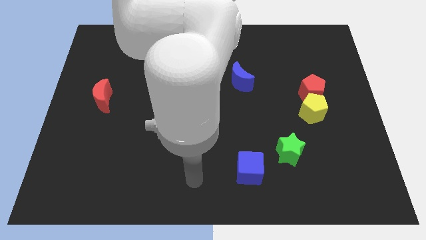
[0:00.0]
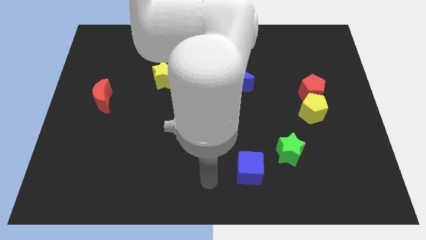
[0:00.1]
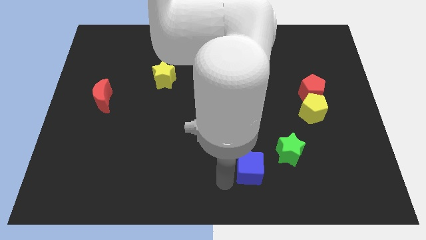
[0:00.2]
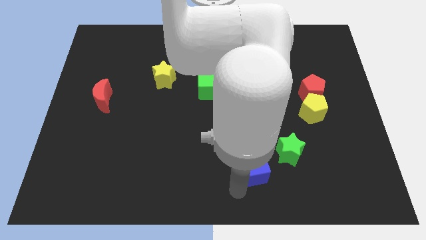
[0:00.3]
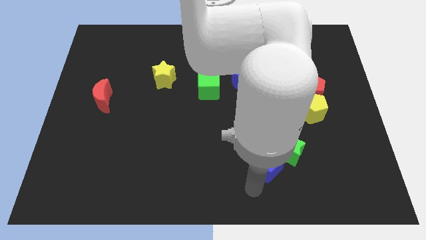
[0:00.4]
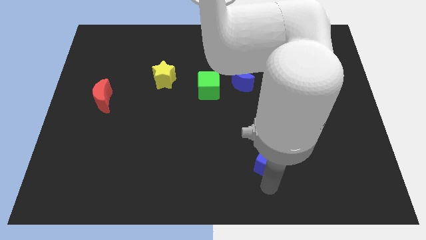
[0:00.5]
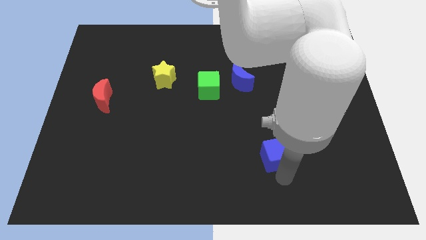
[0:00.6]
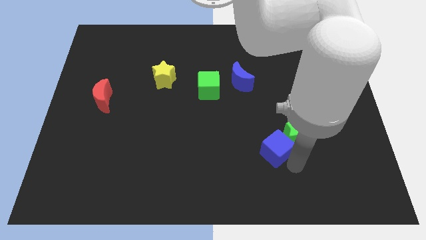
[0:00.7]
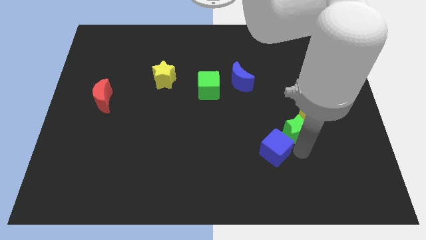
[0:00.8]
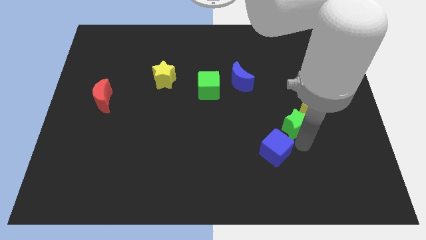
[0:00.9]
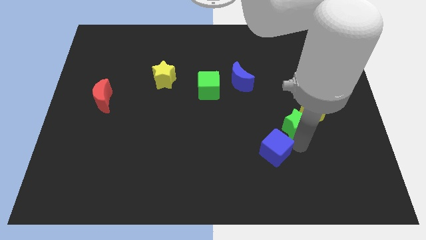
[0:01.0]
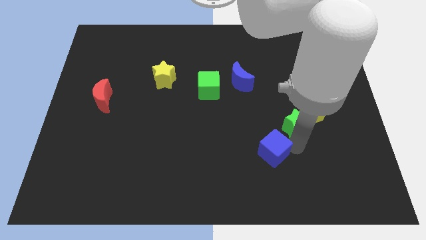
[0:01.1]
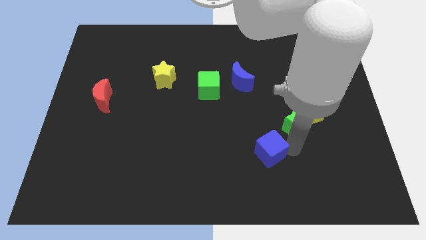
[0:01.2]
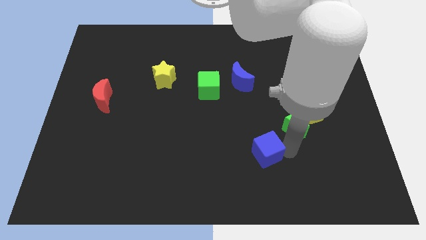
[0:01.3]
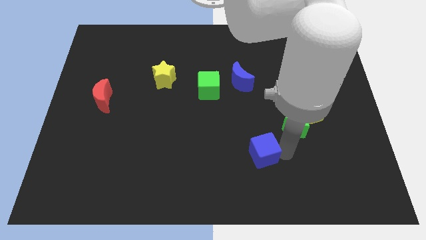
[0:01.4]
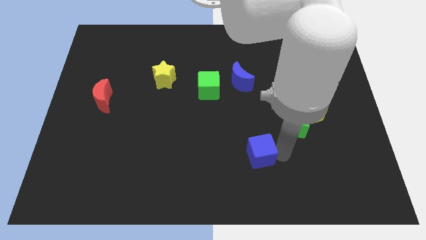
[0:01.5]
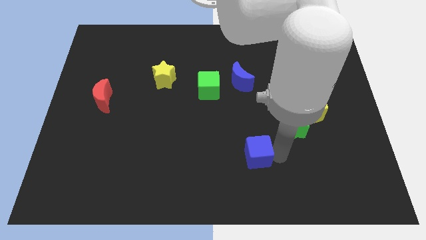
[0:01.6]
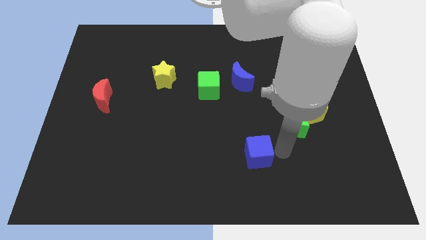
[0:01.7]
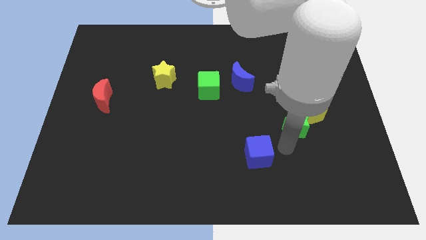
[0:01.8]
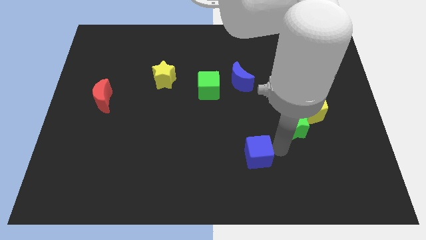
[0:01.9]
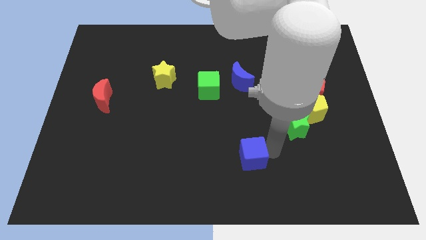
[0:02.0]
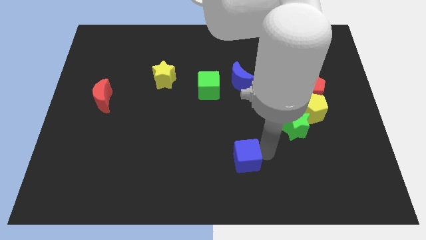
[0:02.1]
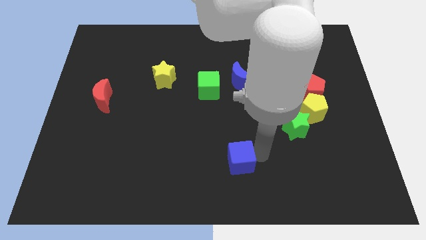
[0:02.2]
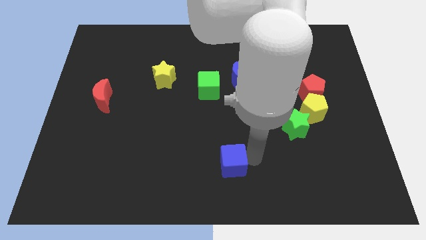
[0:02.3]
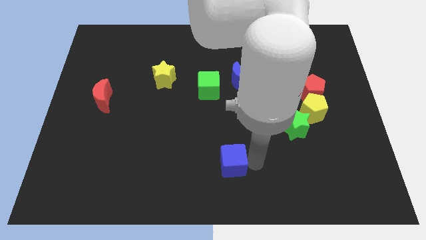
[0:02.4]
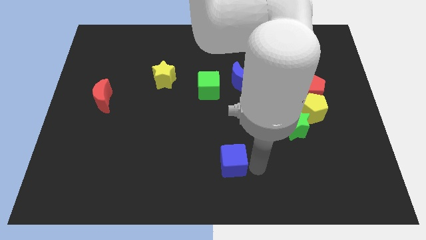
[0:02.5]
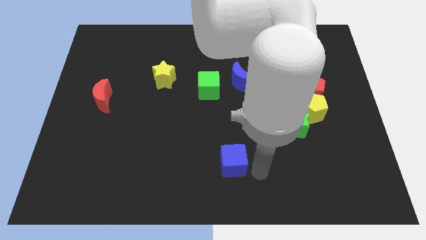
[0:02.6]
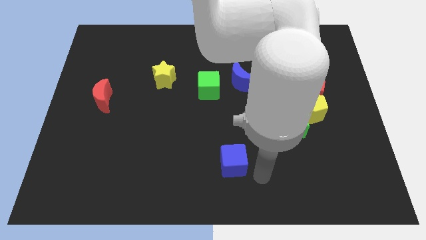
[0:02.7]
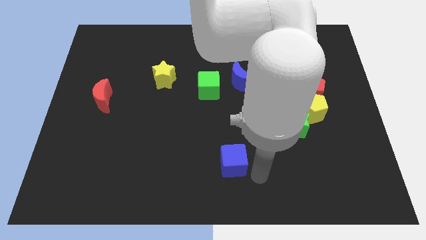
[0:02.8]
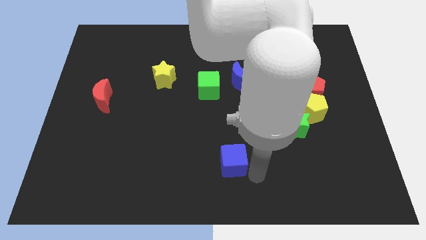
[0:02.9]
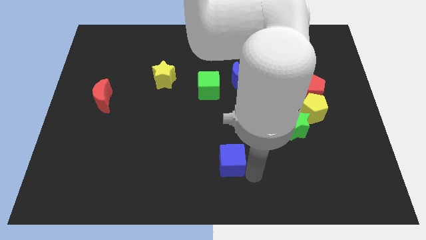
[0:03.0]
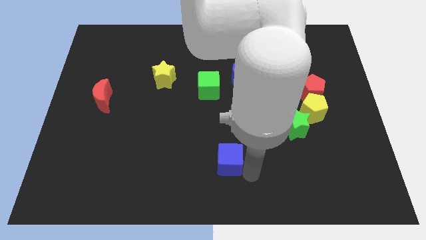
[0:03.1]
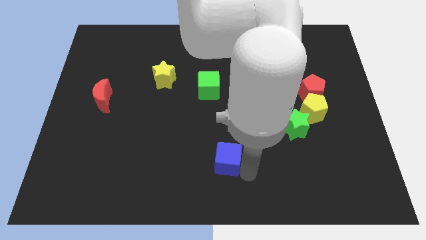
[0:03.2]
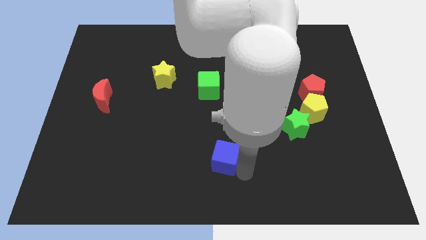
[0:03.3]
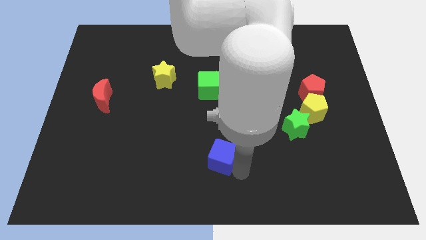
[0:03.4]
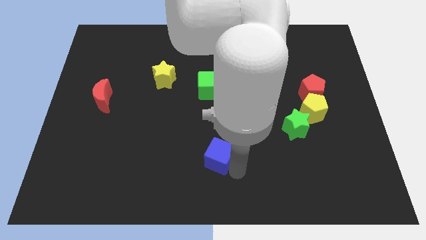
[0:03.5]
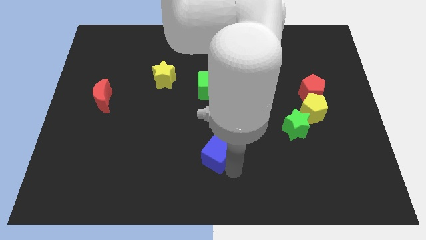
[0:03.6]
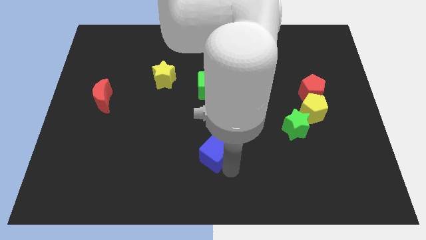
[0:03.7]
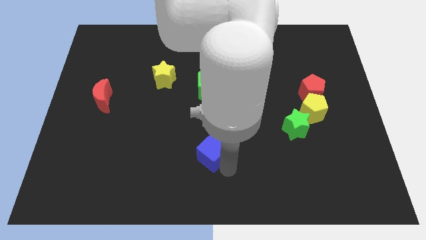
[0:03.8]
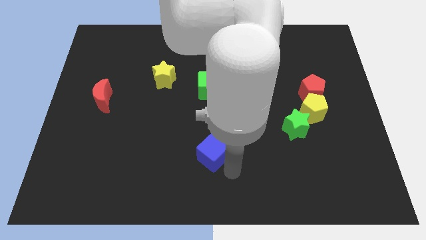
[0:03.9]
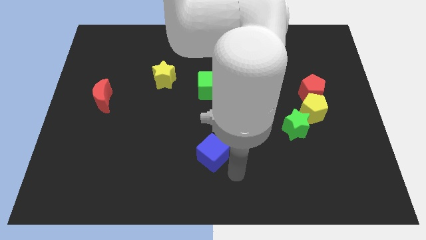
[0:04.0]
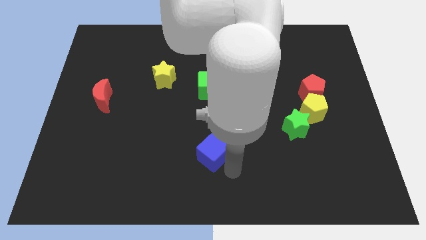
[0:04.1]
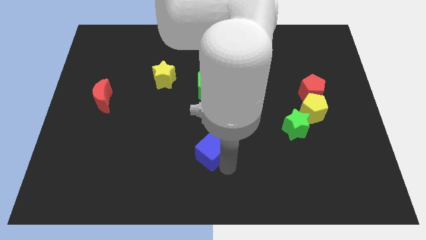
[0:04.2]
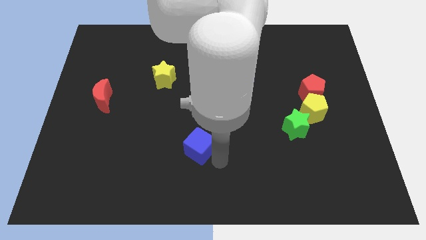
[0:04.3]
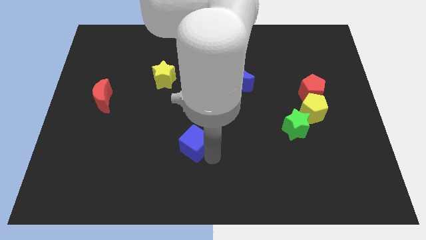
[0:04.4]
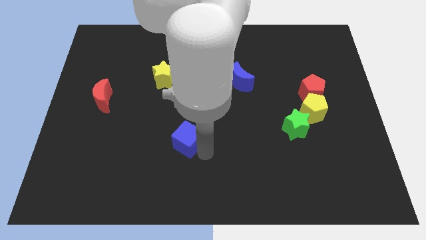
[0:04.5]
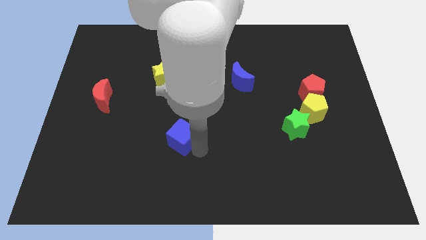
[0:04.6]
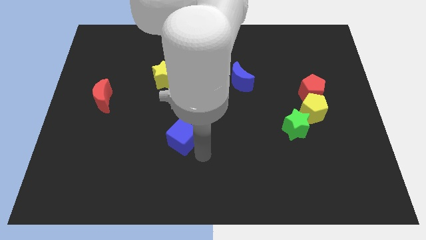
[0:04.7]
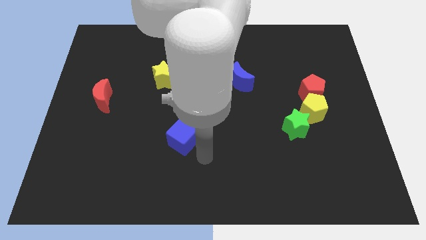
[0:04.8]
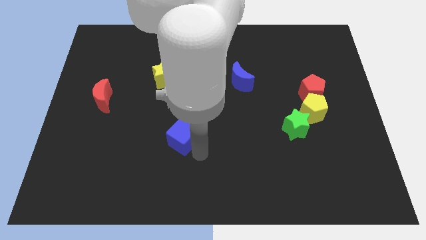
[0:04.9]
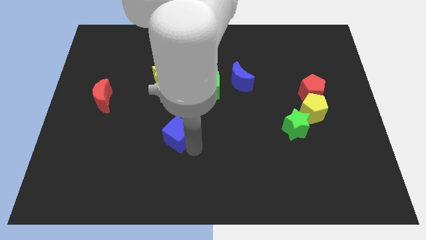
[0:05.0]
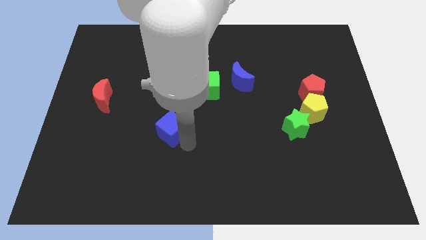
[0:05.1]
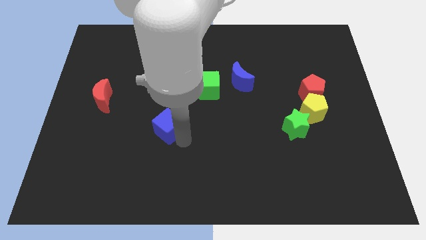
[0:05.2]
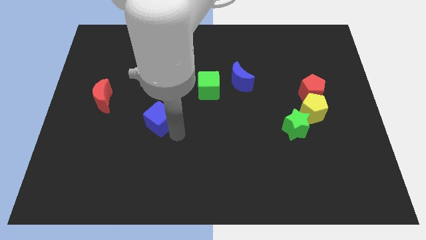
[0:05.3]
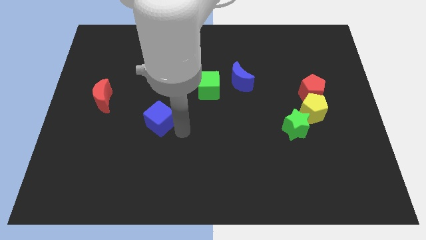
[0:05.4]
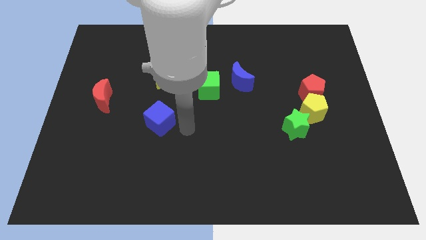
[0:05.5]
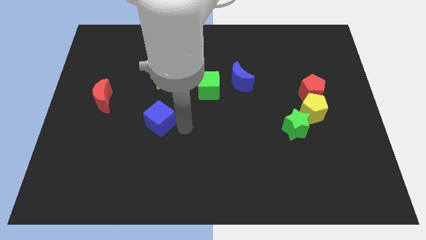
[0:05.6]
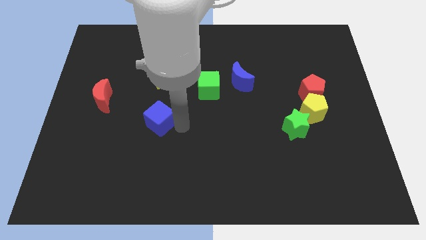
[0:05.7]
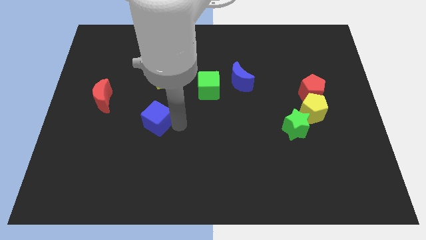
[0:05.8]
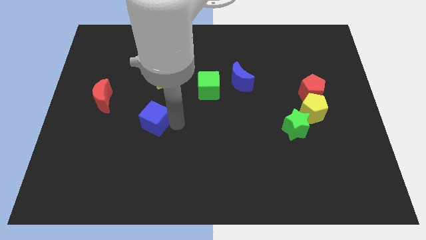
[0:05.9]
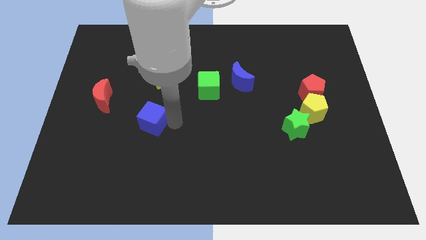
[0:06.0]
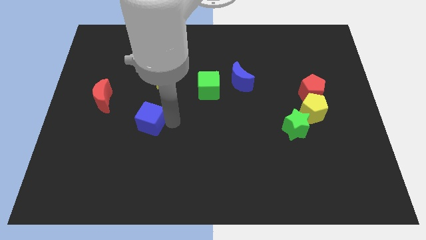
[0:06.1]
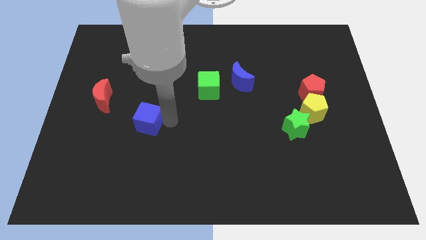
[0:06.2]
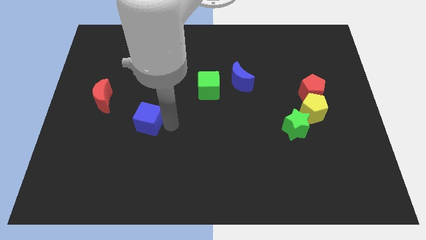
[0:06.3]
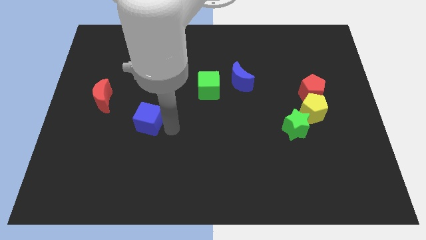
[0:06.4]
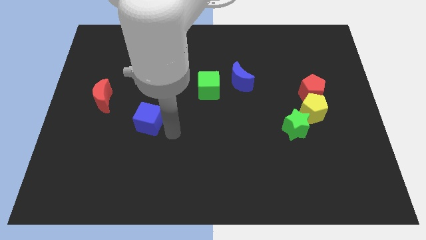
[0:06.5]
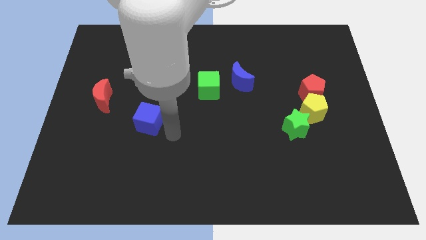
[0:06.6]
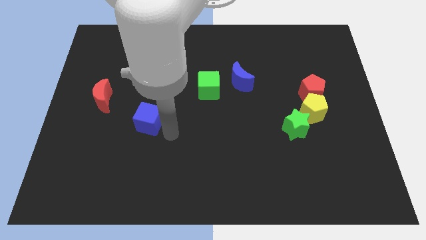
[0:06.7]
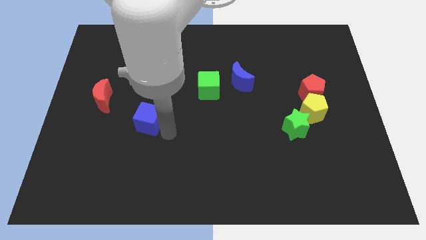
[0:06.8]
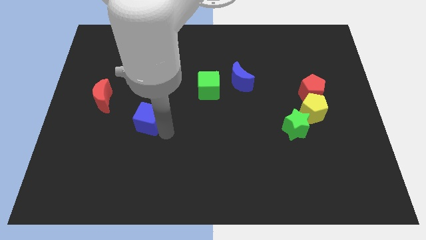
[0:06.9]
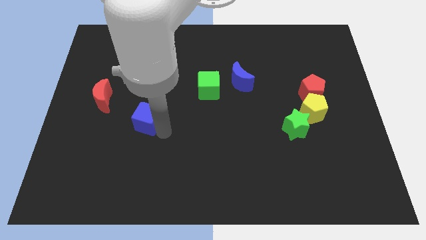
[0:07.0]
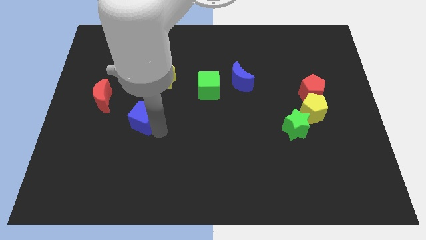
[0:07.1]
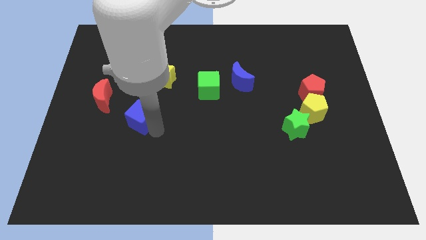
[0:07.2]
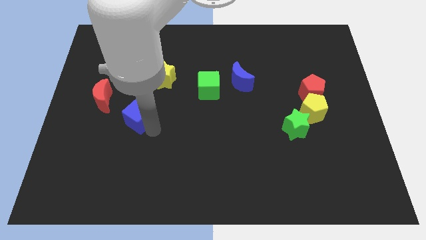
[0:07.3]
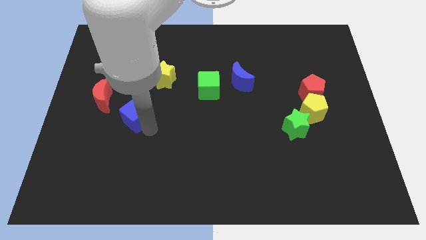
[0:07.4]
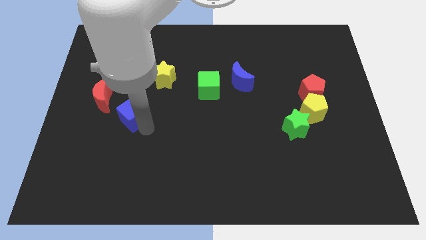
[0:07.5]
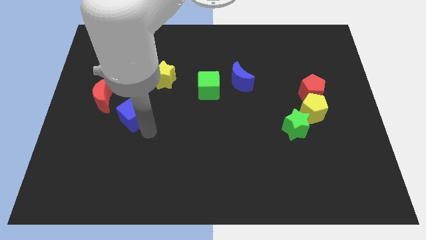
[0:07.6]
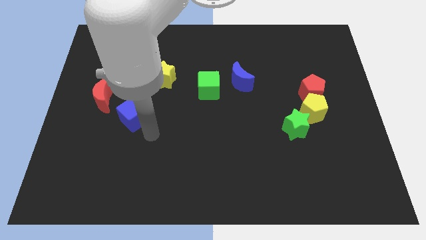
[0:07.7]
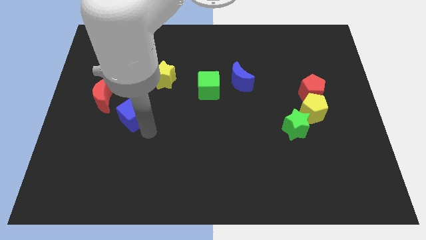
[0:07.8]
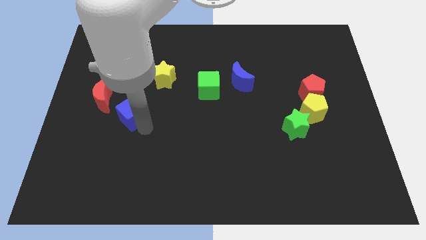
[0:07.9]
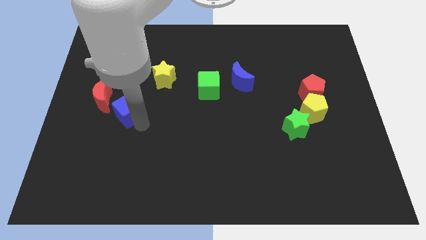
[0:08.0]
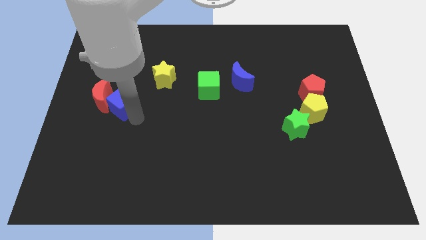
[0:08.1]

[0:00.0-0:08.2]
put the blue cube towards the red moon
